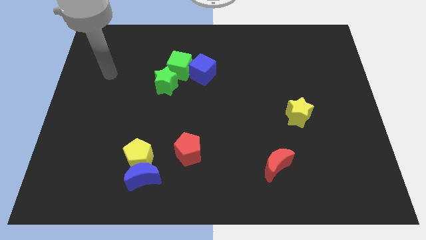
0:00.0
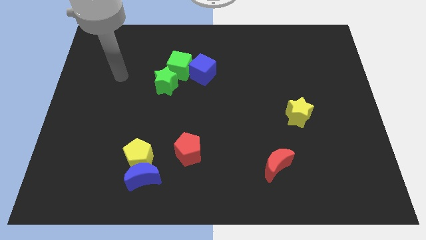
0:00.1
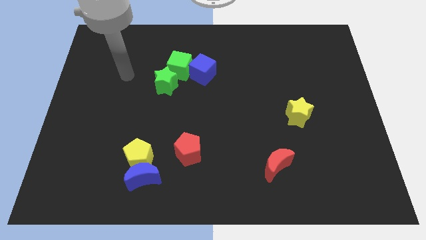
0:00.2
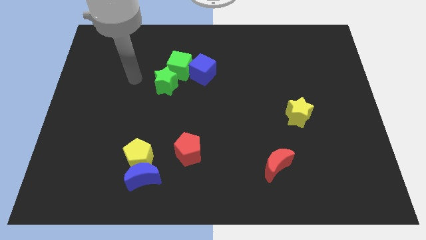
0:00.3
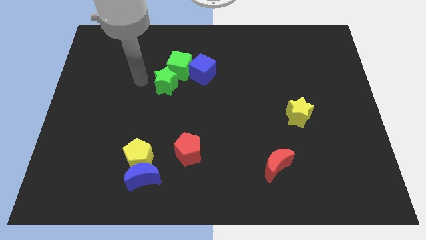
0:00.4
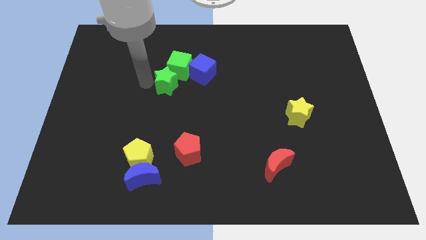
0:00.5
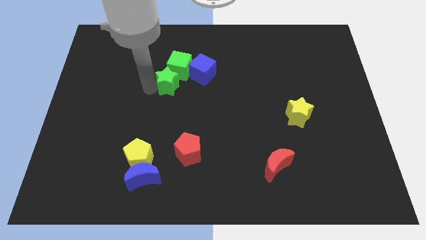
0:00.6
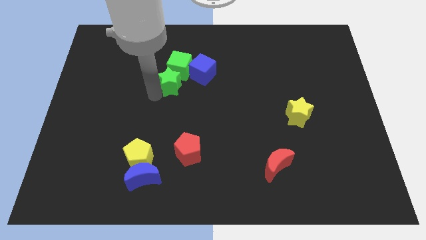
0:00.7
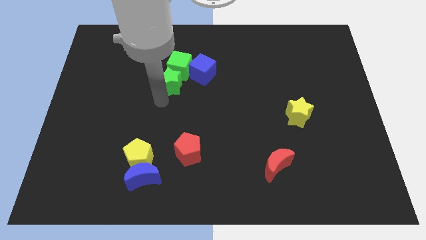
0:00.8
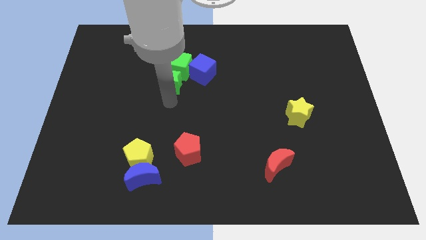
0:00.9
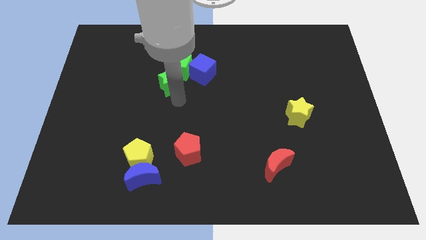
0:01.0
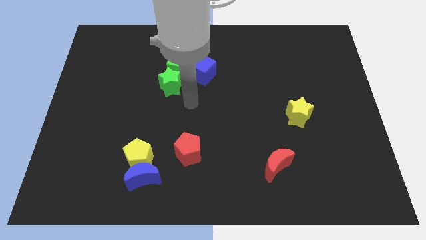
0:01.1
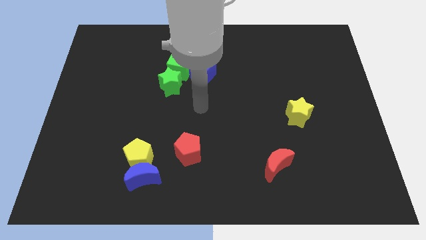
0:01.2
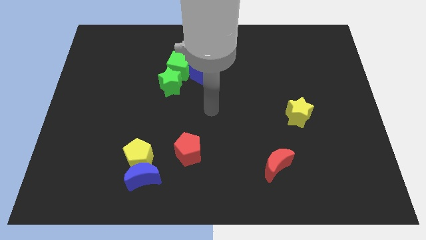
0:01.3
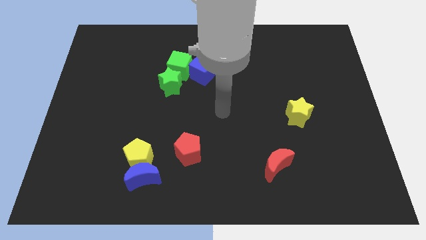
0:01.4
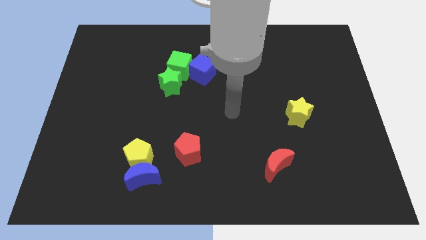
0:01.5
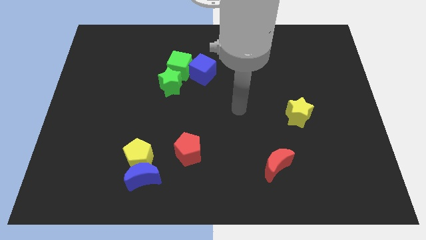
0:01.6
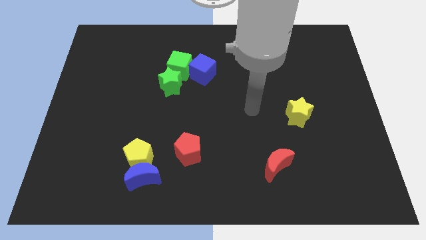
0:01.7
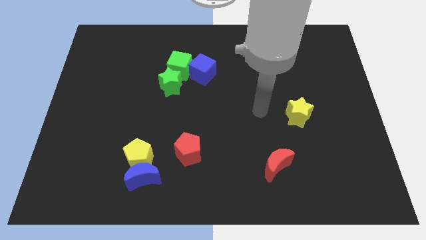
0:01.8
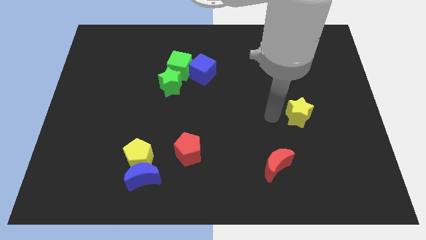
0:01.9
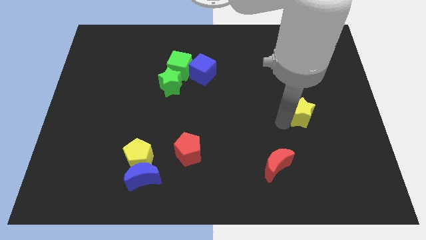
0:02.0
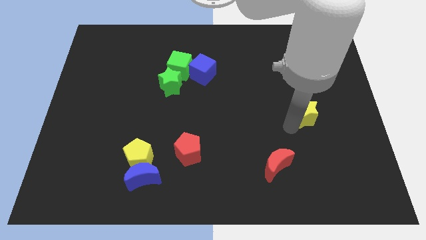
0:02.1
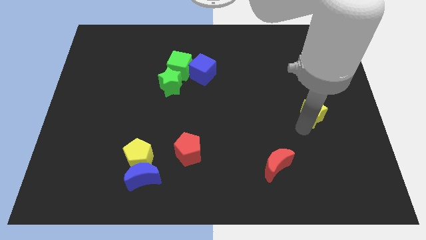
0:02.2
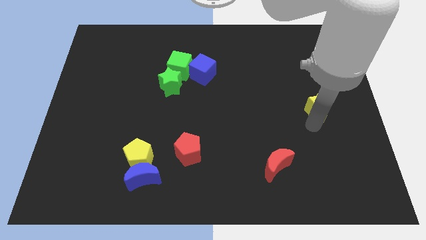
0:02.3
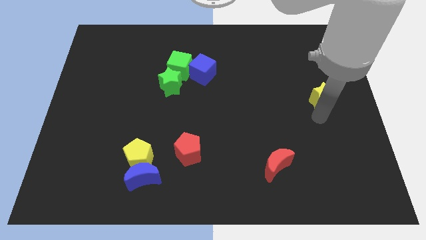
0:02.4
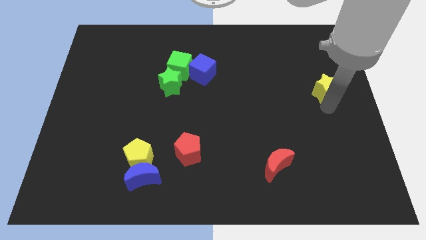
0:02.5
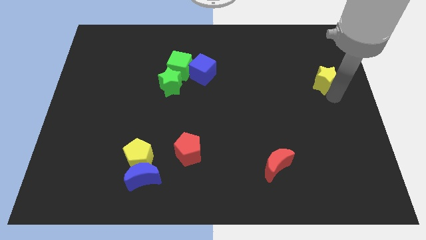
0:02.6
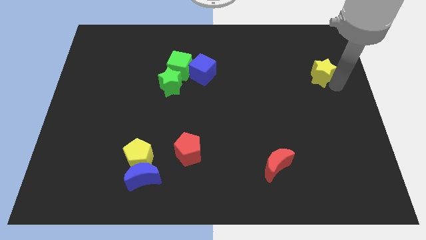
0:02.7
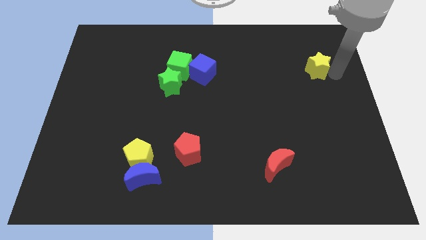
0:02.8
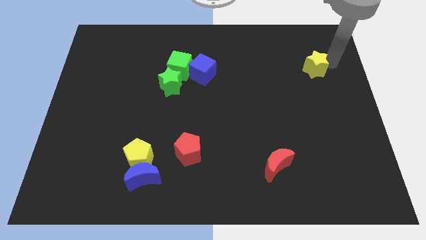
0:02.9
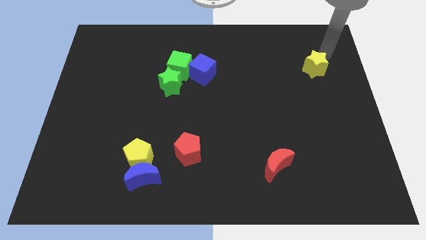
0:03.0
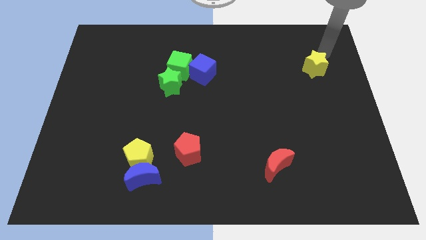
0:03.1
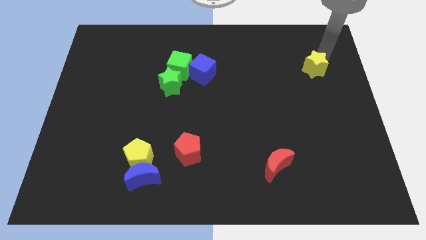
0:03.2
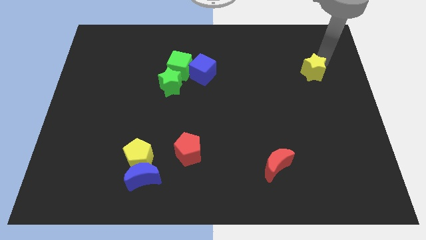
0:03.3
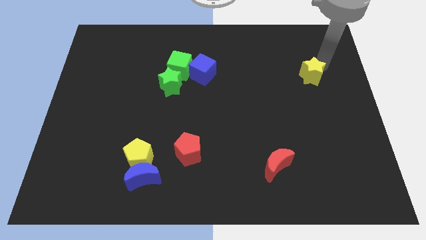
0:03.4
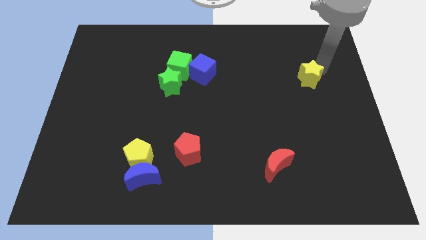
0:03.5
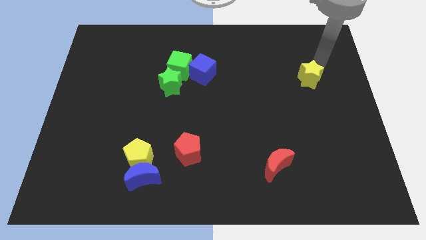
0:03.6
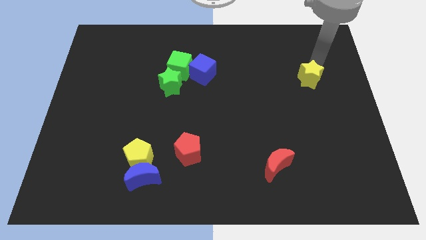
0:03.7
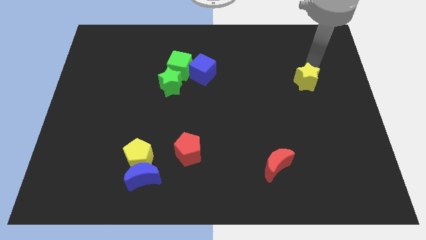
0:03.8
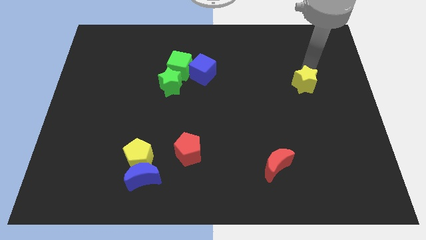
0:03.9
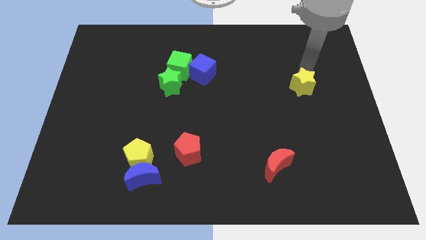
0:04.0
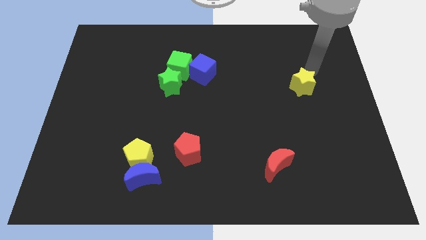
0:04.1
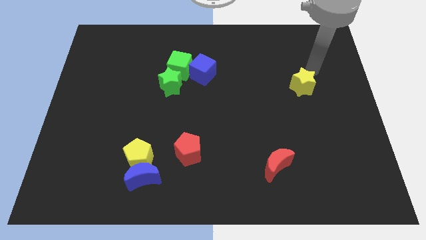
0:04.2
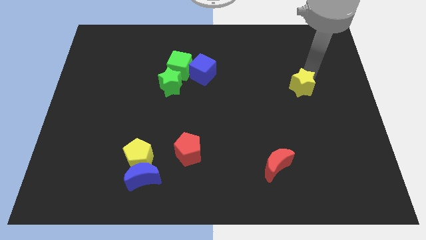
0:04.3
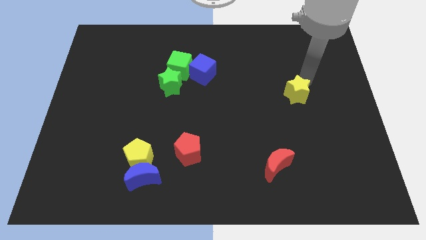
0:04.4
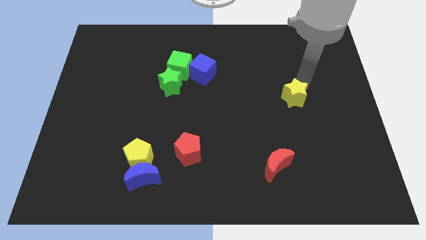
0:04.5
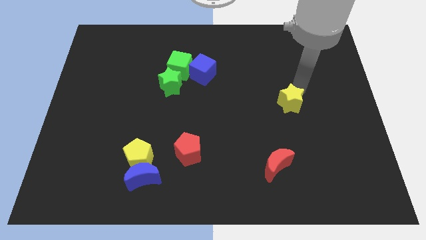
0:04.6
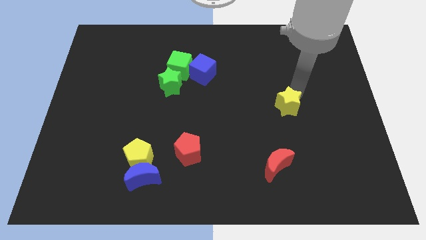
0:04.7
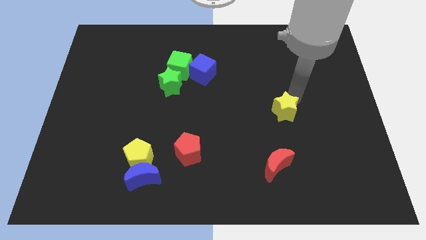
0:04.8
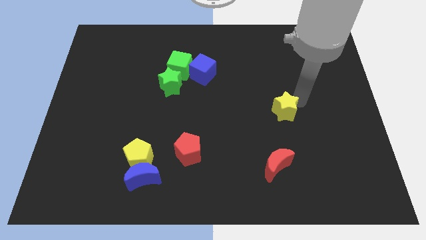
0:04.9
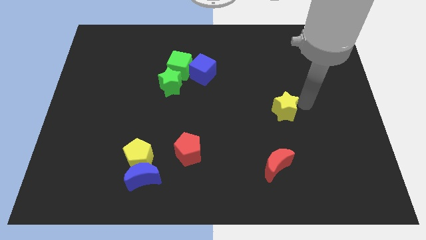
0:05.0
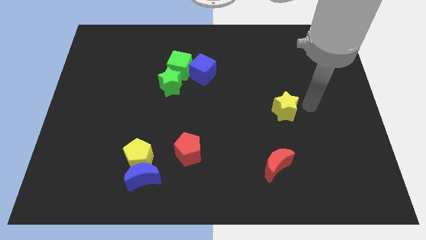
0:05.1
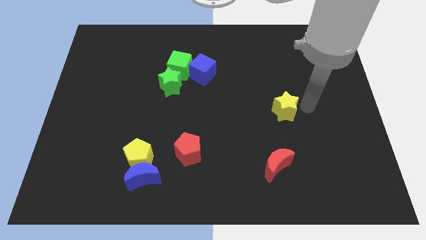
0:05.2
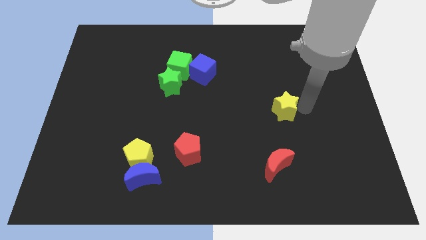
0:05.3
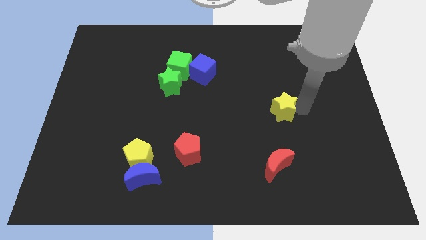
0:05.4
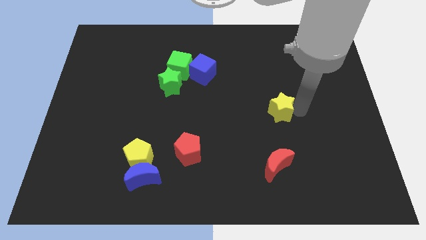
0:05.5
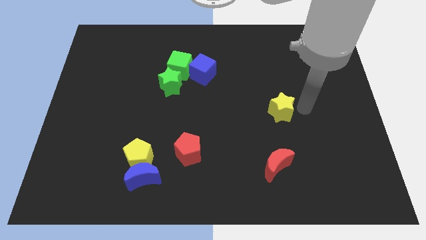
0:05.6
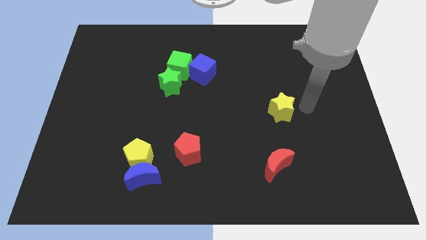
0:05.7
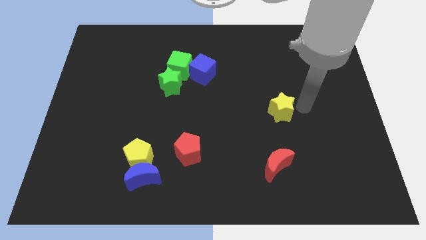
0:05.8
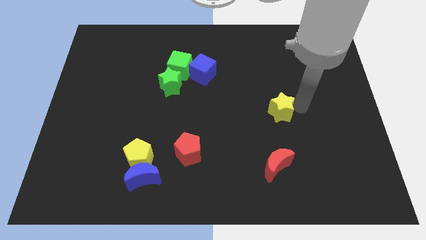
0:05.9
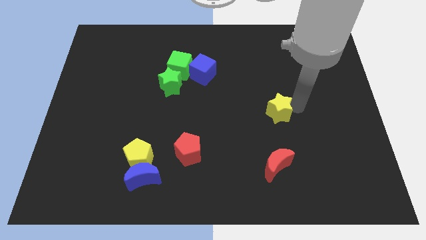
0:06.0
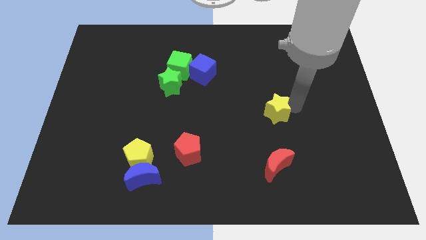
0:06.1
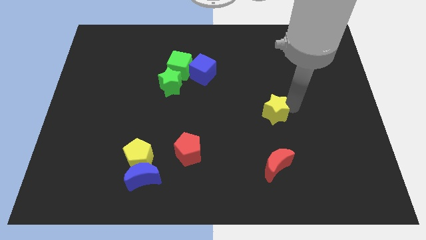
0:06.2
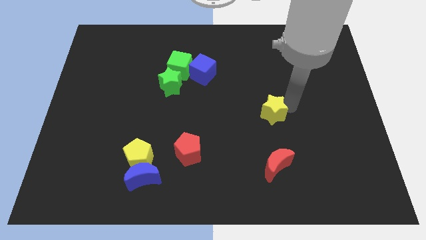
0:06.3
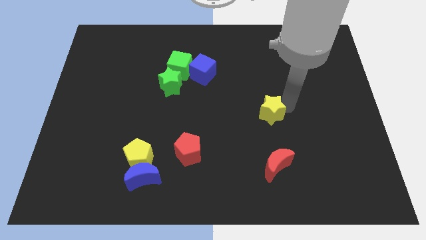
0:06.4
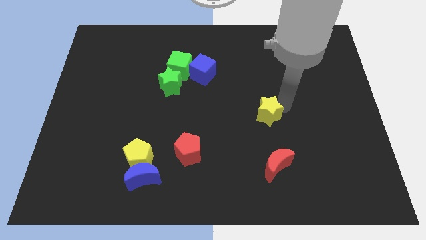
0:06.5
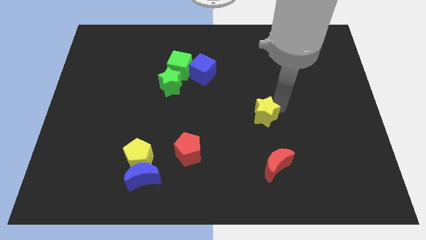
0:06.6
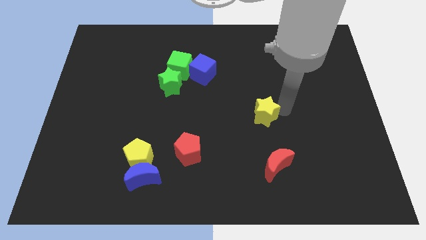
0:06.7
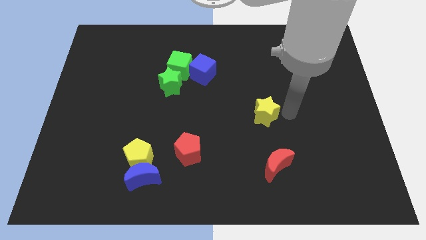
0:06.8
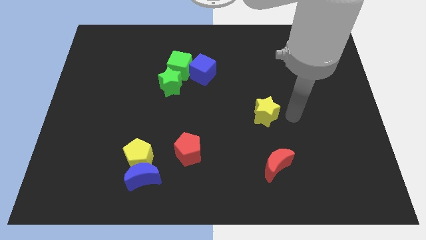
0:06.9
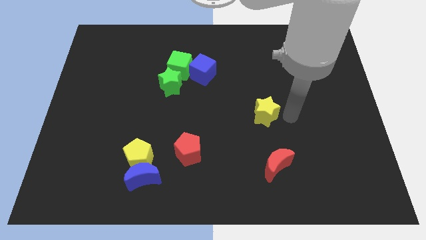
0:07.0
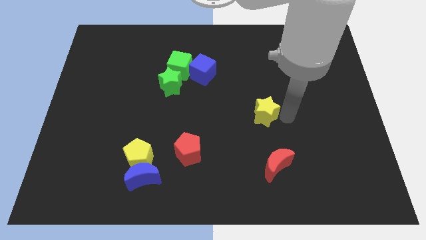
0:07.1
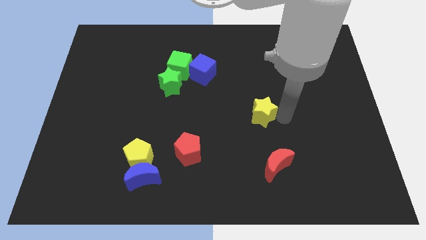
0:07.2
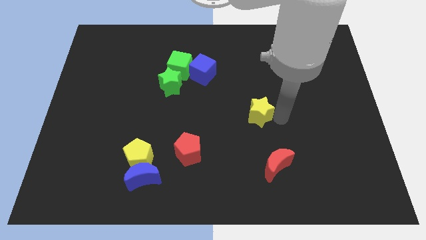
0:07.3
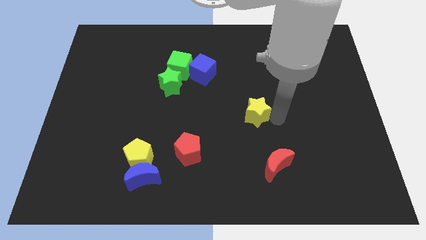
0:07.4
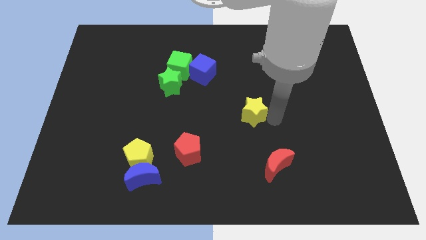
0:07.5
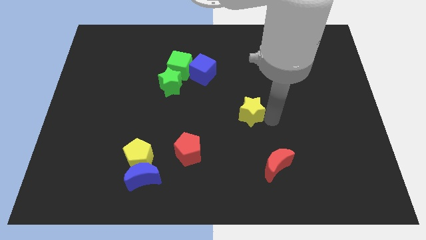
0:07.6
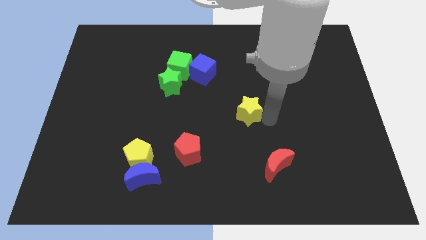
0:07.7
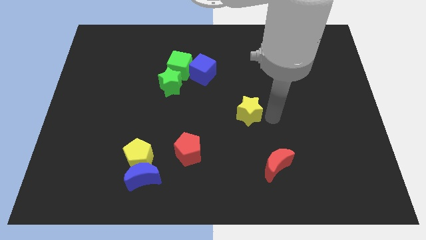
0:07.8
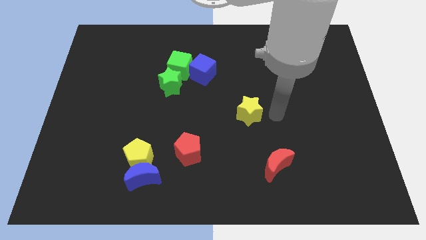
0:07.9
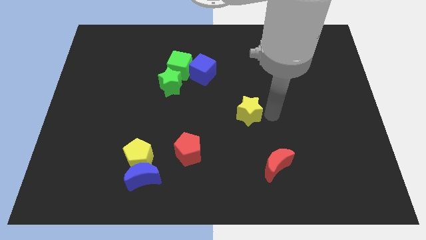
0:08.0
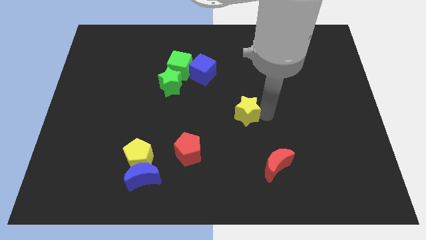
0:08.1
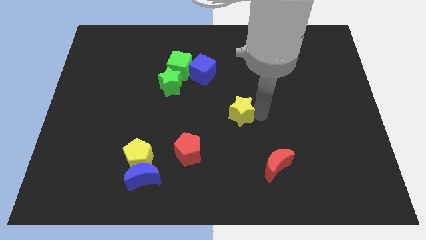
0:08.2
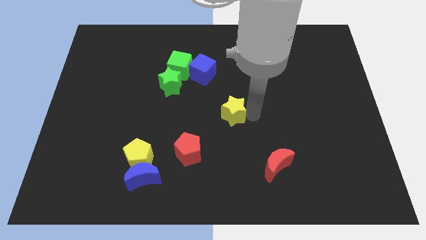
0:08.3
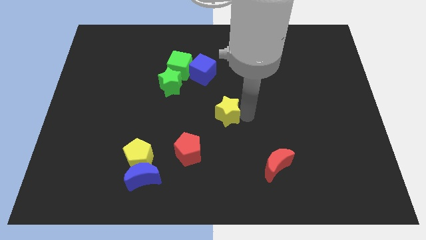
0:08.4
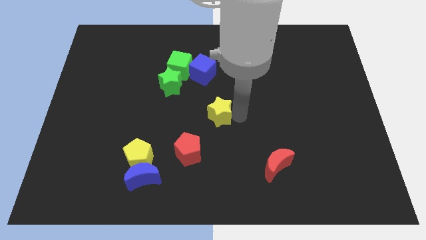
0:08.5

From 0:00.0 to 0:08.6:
put the yellow star to the bottom side of the blue cube
